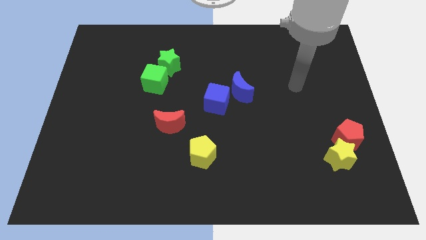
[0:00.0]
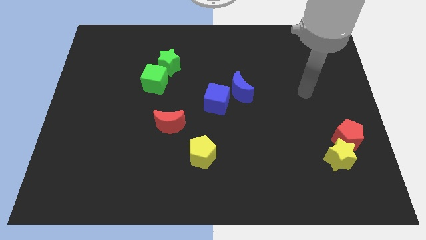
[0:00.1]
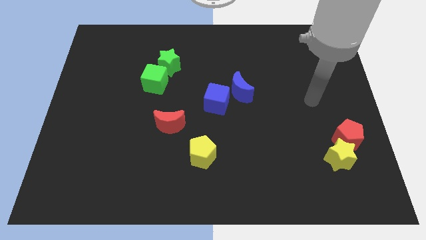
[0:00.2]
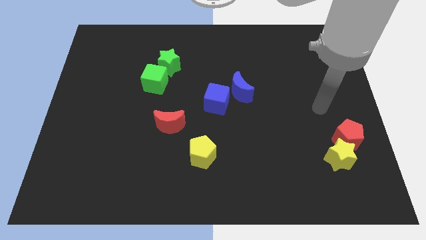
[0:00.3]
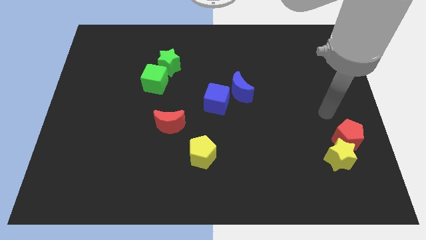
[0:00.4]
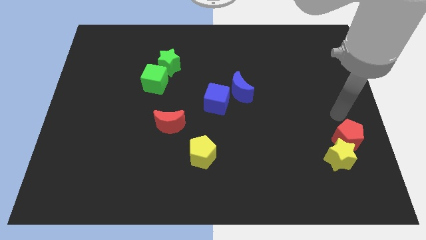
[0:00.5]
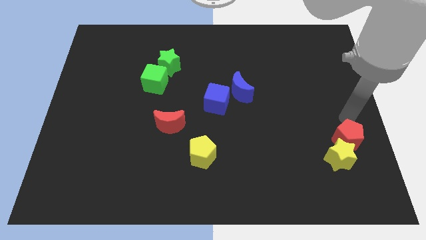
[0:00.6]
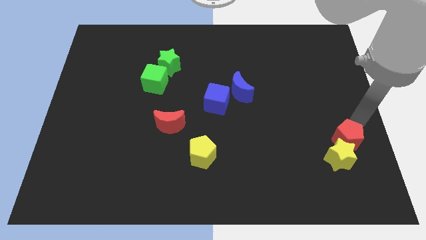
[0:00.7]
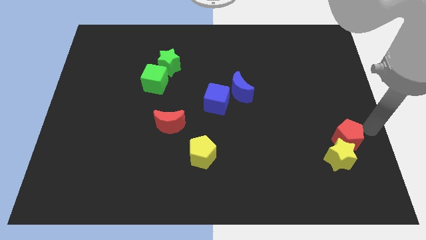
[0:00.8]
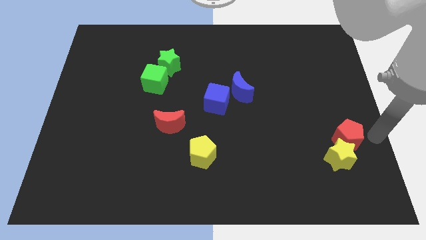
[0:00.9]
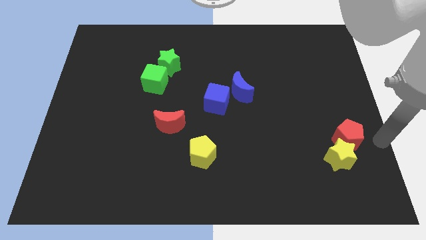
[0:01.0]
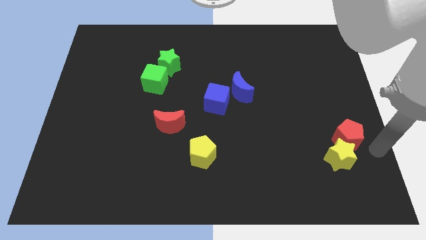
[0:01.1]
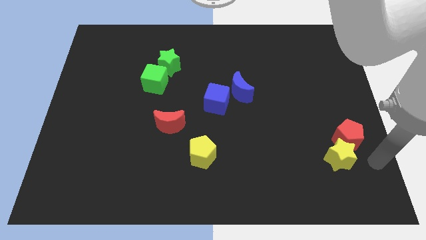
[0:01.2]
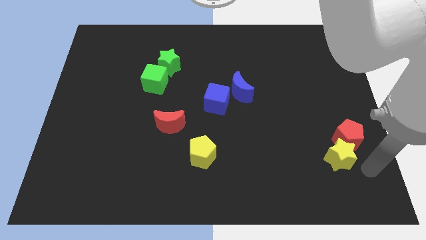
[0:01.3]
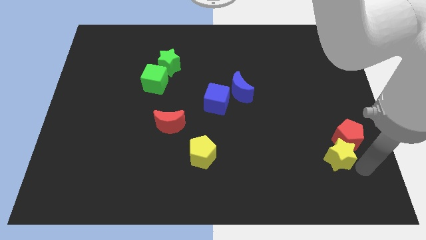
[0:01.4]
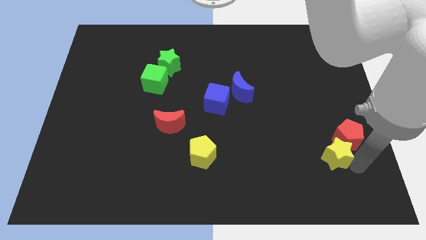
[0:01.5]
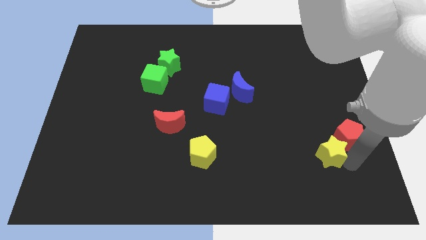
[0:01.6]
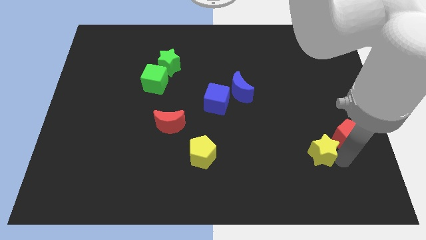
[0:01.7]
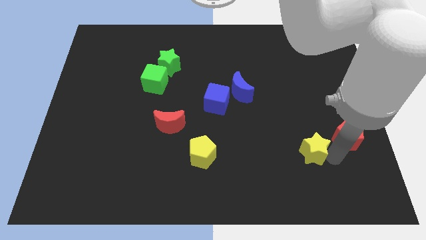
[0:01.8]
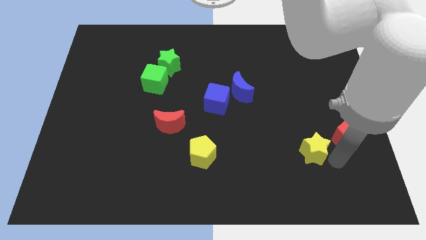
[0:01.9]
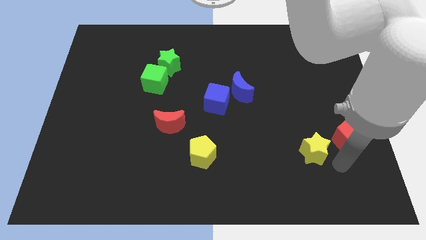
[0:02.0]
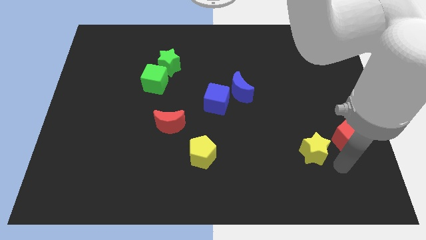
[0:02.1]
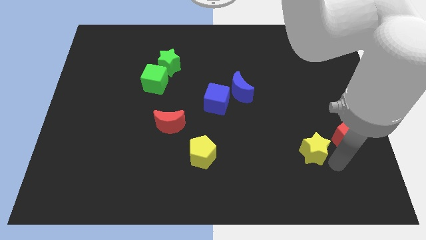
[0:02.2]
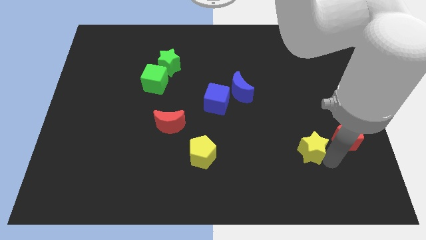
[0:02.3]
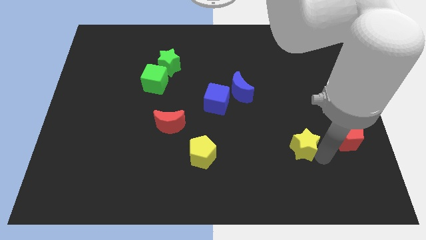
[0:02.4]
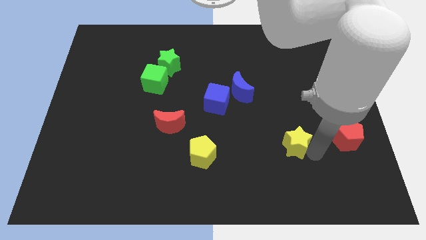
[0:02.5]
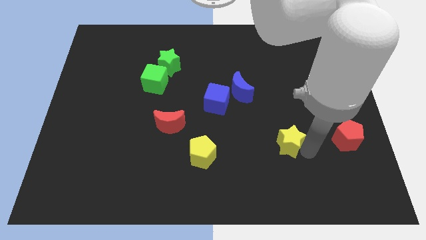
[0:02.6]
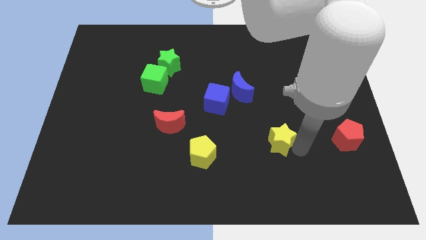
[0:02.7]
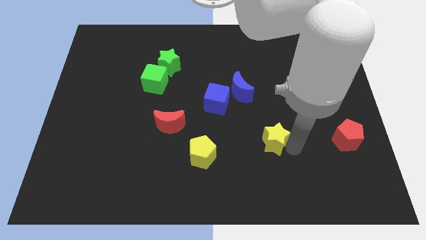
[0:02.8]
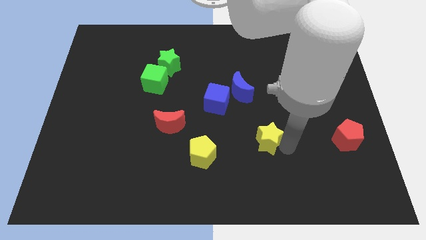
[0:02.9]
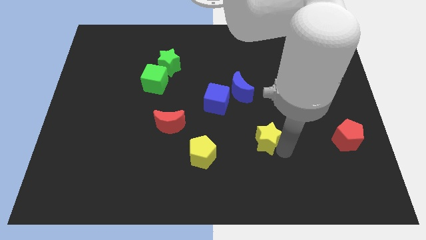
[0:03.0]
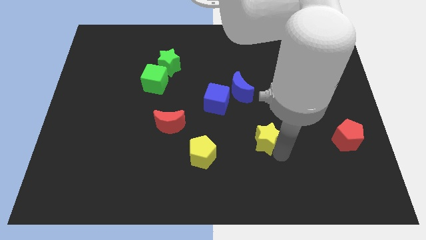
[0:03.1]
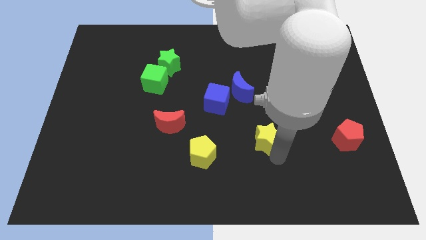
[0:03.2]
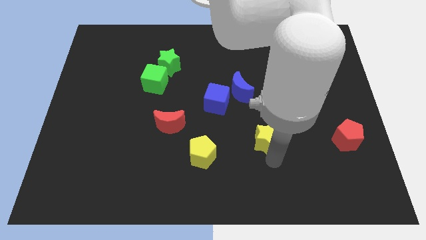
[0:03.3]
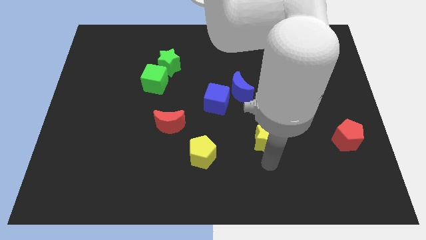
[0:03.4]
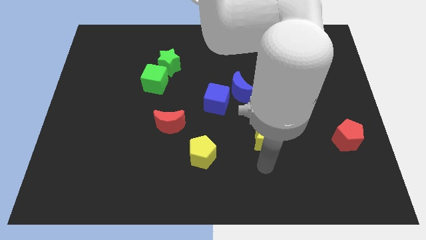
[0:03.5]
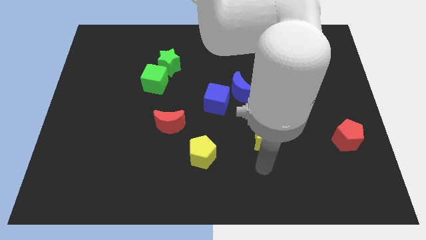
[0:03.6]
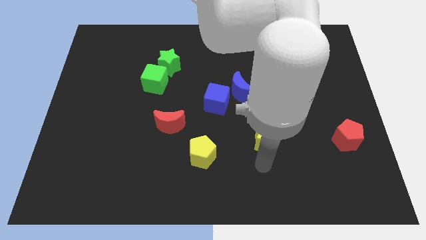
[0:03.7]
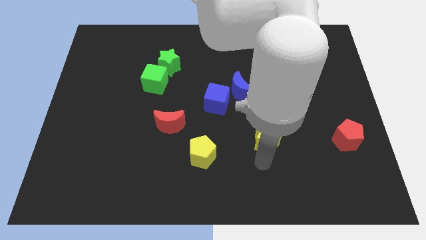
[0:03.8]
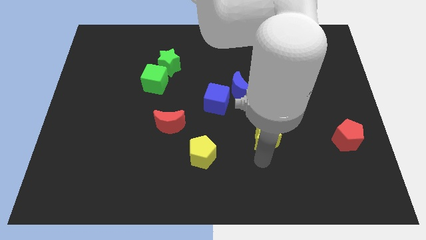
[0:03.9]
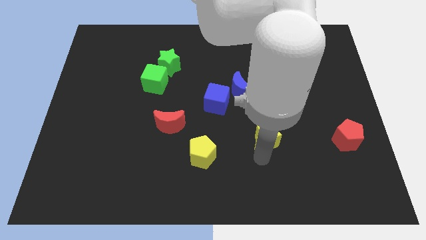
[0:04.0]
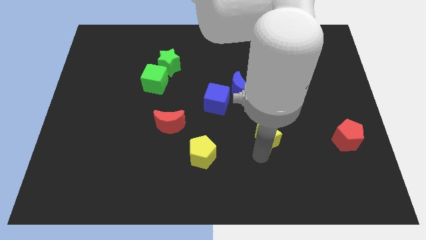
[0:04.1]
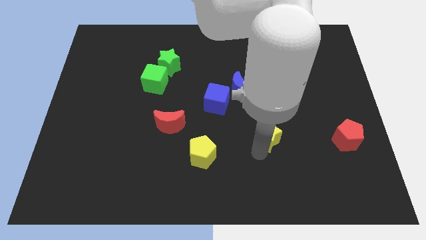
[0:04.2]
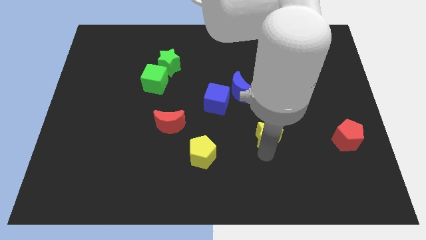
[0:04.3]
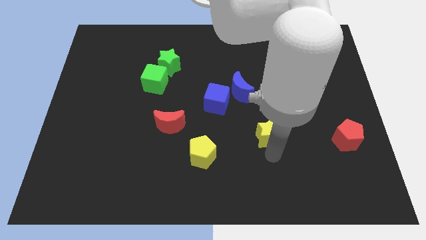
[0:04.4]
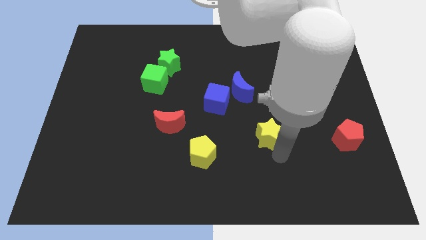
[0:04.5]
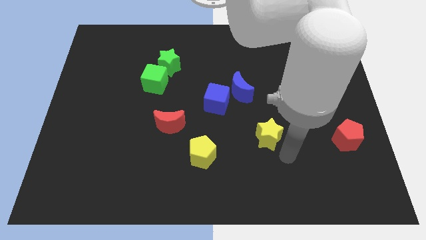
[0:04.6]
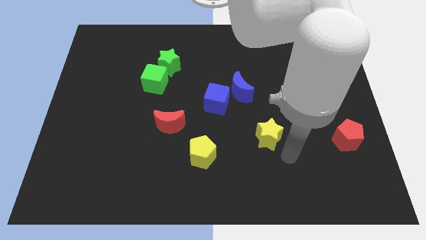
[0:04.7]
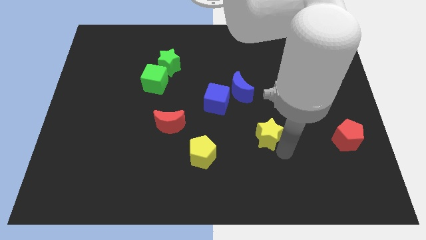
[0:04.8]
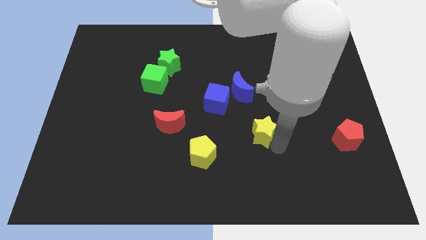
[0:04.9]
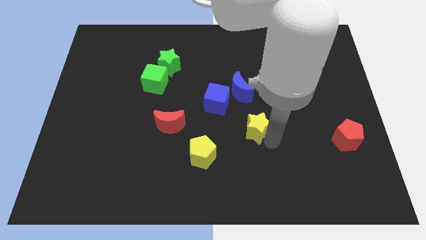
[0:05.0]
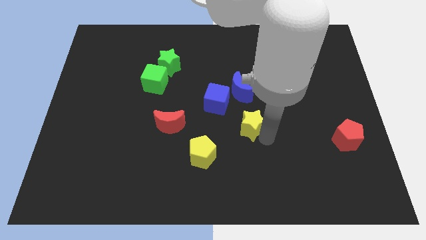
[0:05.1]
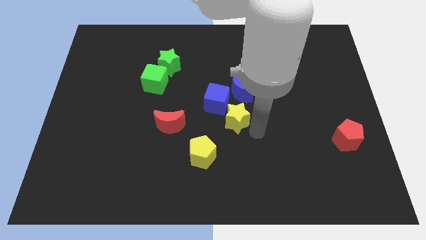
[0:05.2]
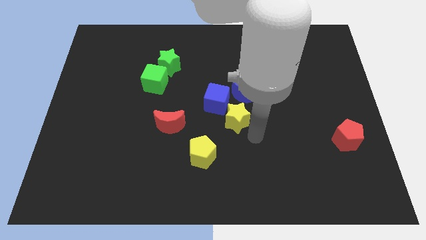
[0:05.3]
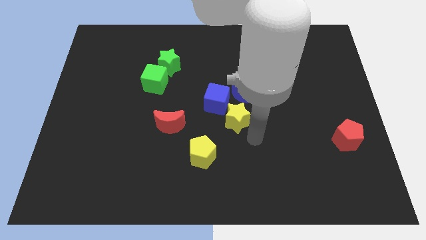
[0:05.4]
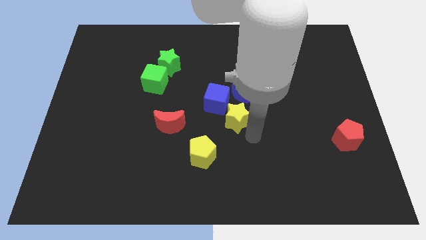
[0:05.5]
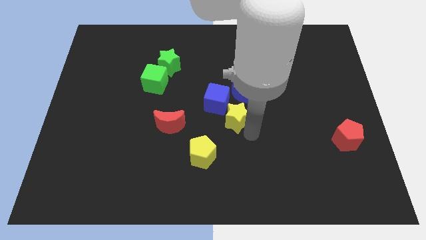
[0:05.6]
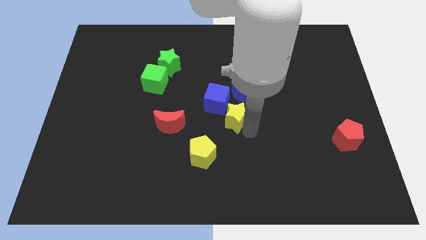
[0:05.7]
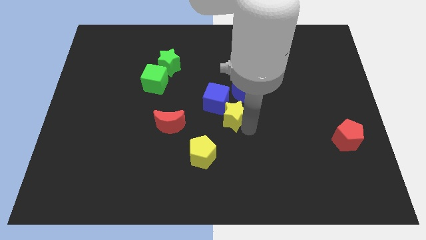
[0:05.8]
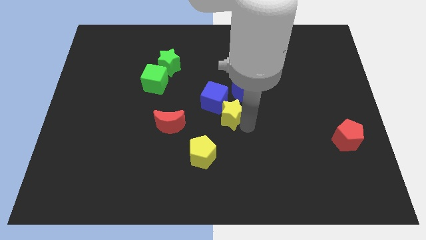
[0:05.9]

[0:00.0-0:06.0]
move the yellow star to the blue cube

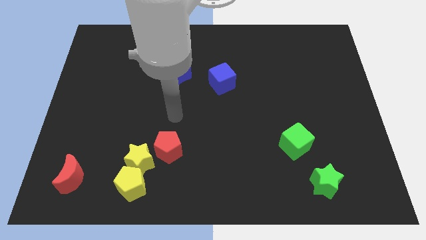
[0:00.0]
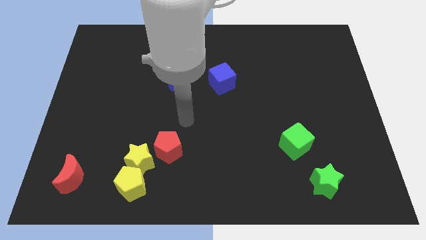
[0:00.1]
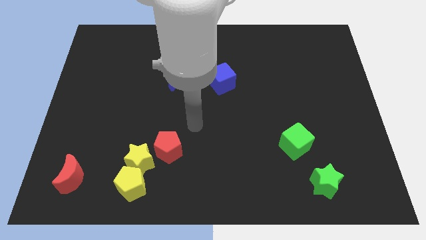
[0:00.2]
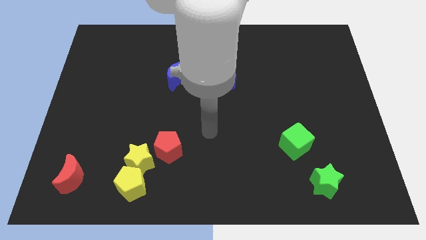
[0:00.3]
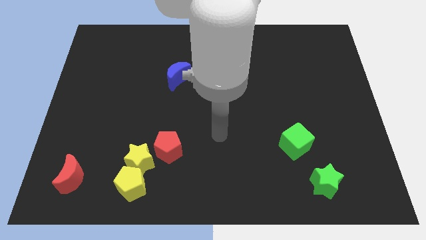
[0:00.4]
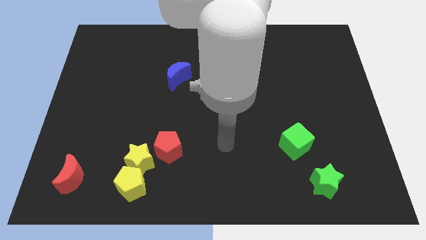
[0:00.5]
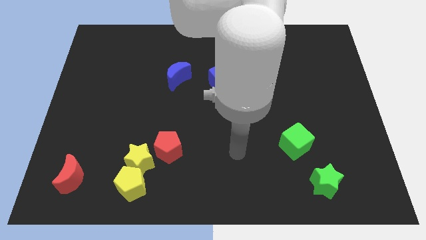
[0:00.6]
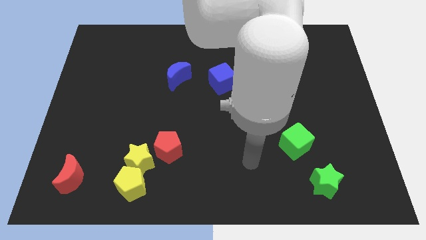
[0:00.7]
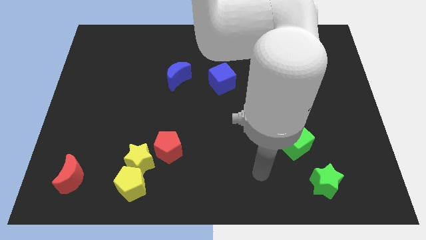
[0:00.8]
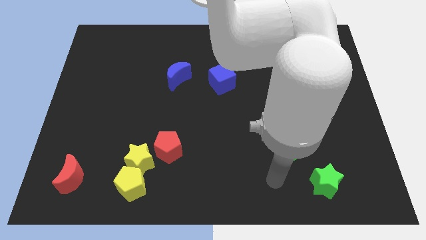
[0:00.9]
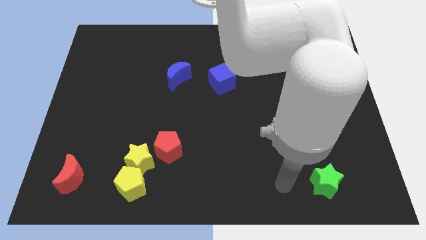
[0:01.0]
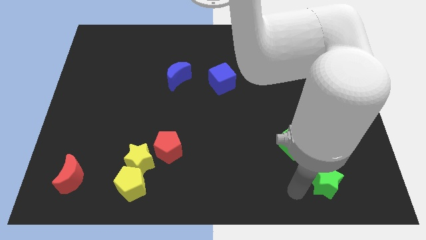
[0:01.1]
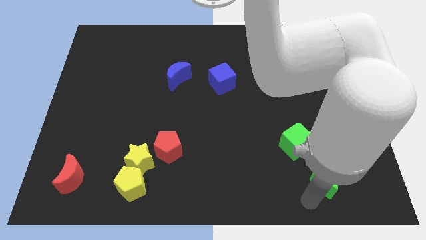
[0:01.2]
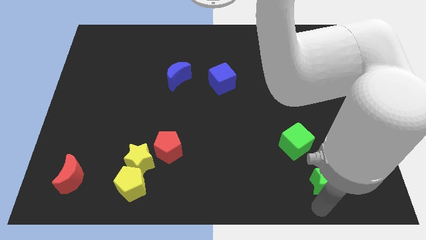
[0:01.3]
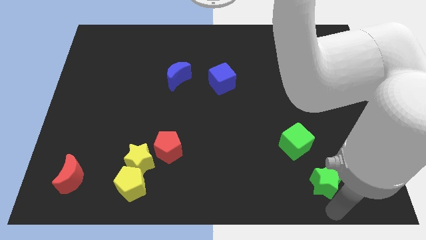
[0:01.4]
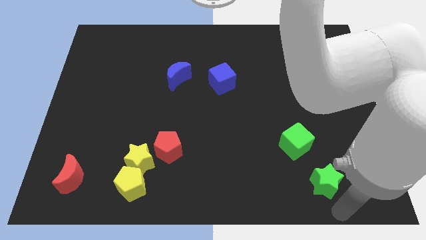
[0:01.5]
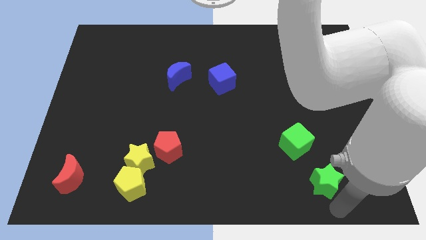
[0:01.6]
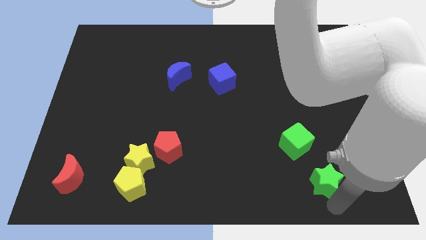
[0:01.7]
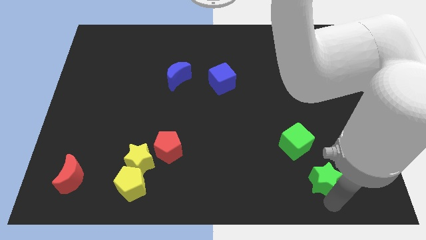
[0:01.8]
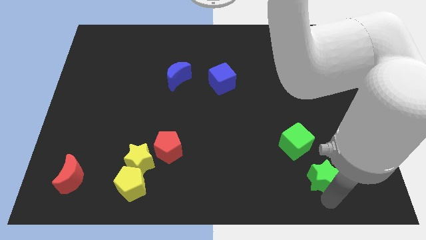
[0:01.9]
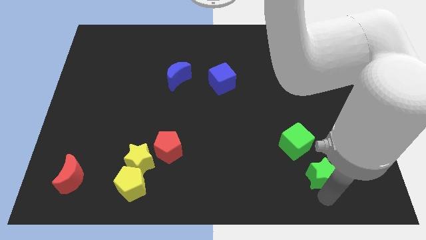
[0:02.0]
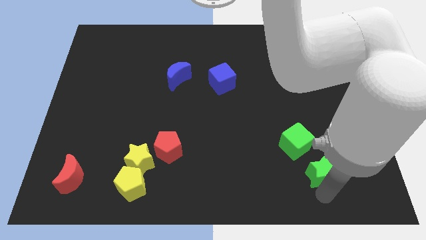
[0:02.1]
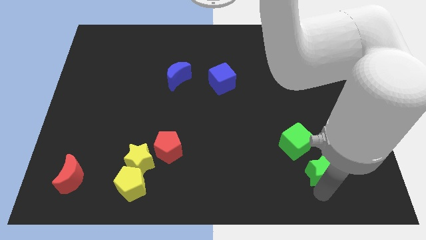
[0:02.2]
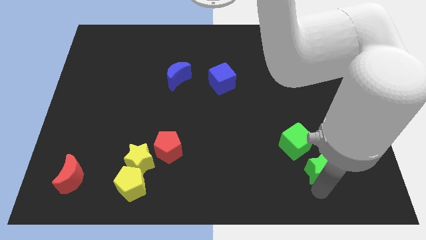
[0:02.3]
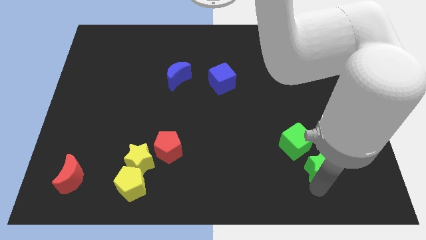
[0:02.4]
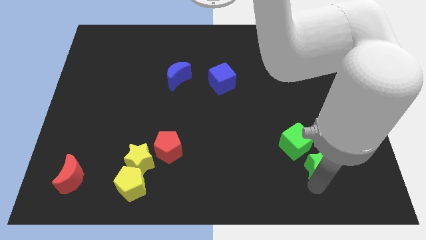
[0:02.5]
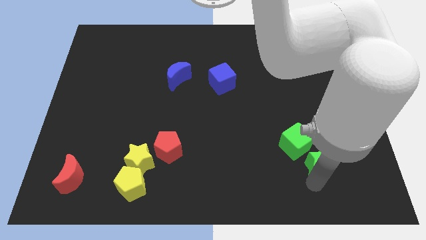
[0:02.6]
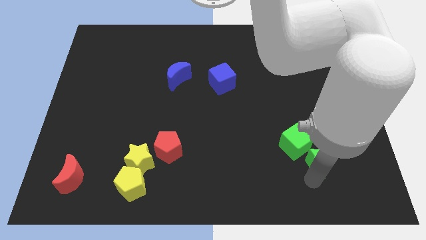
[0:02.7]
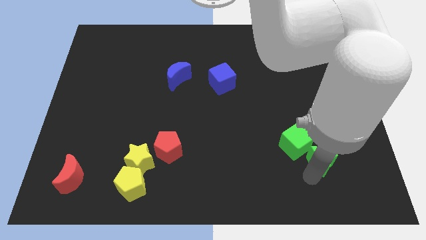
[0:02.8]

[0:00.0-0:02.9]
push the green star next to the green cube
